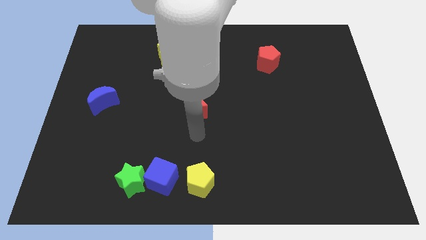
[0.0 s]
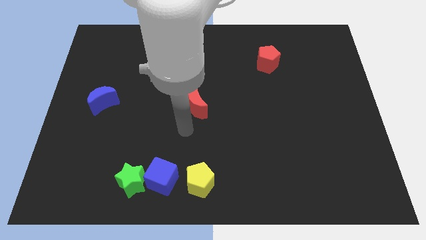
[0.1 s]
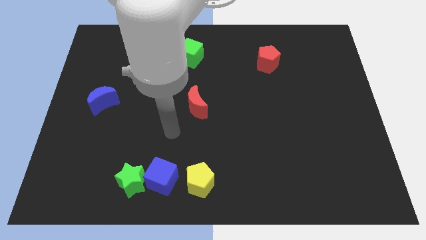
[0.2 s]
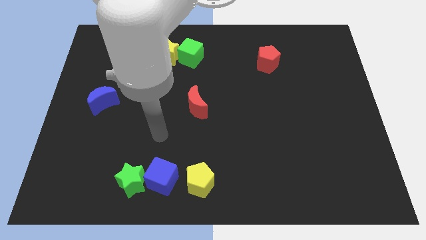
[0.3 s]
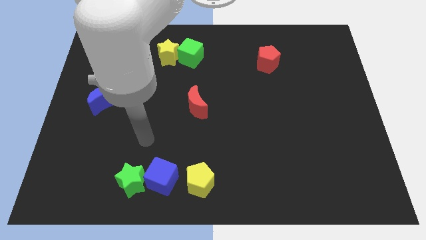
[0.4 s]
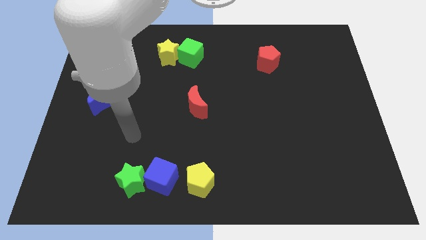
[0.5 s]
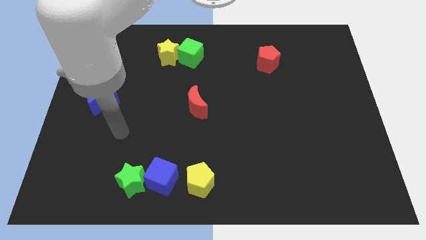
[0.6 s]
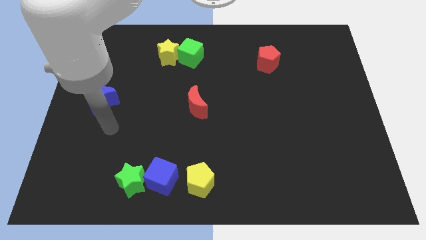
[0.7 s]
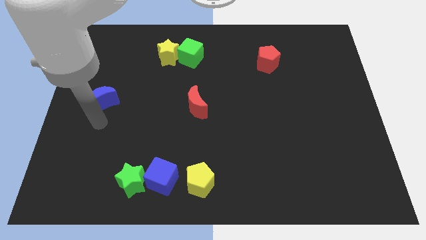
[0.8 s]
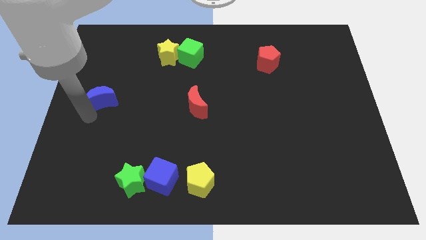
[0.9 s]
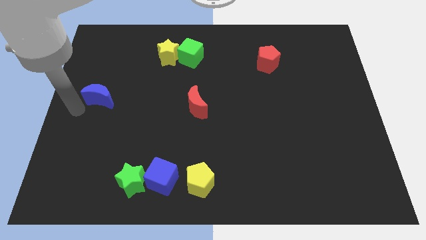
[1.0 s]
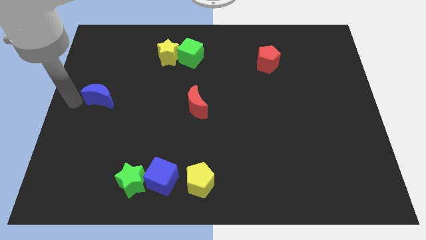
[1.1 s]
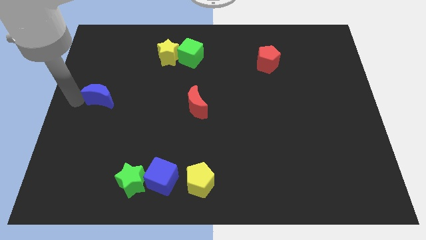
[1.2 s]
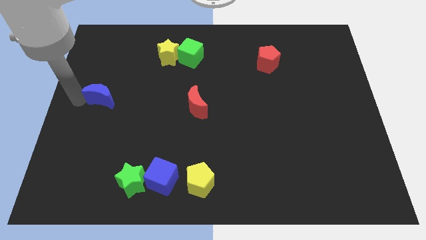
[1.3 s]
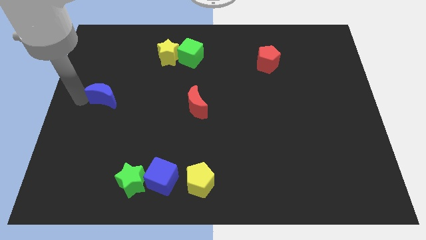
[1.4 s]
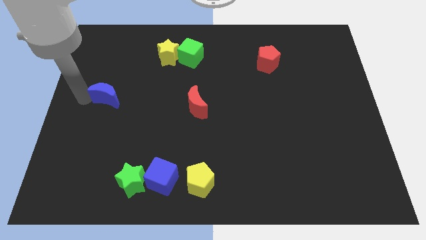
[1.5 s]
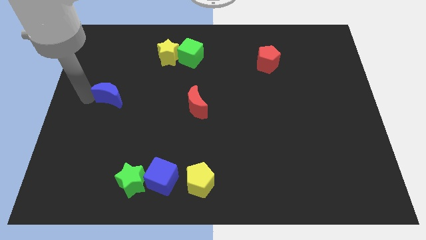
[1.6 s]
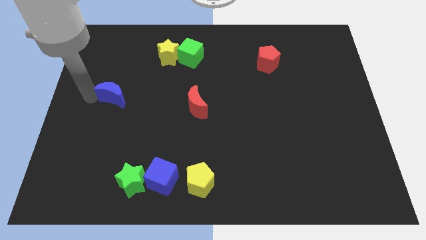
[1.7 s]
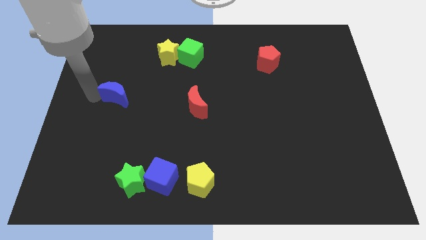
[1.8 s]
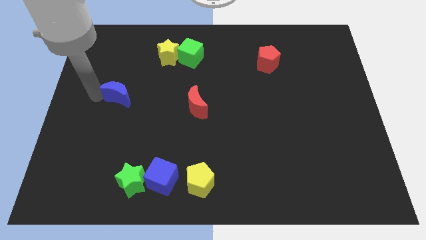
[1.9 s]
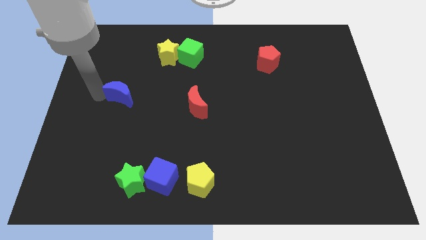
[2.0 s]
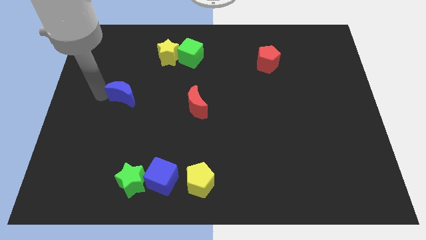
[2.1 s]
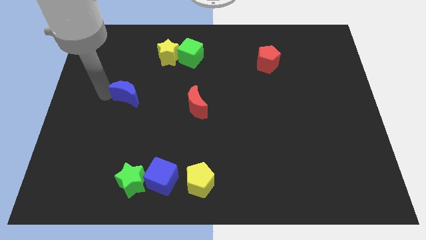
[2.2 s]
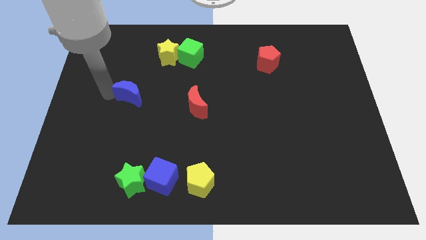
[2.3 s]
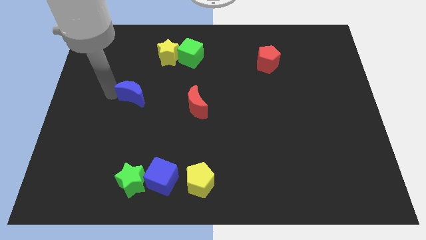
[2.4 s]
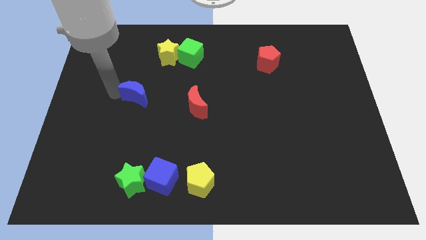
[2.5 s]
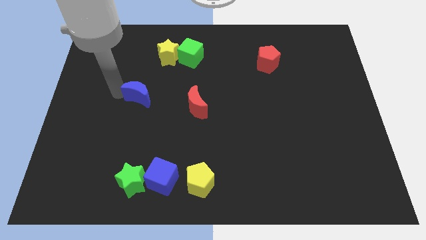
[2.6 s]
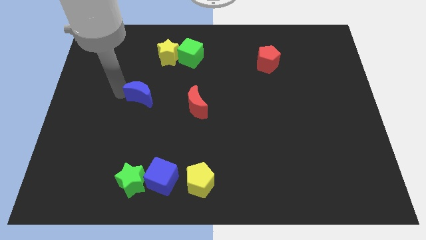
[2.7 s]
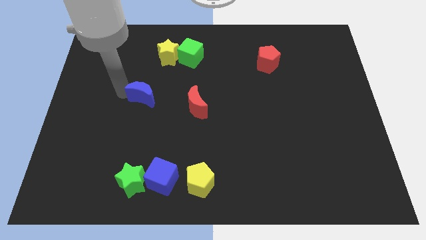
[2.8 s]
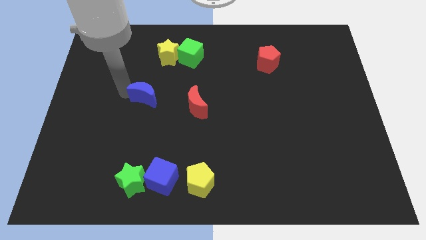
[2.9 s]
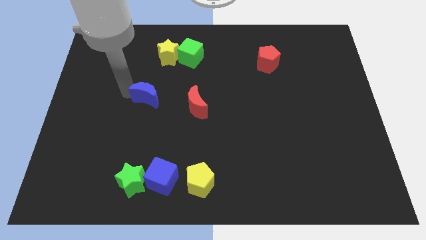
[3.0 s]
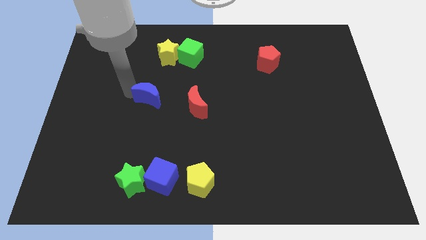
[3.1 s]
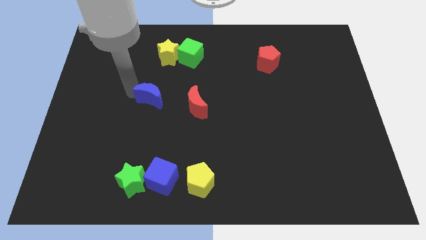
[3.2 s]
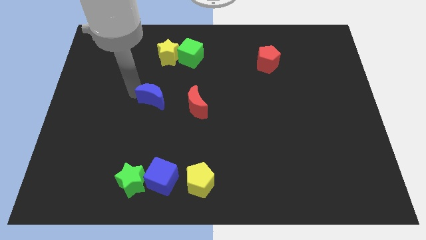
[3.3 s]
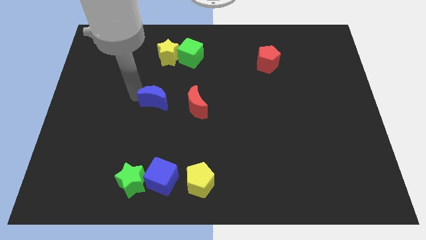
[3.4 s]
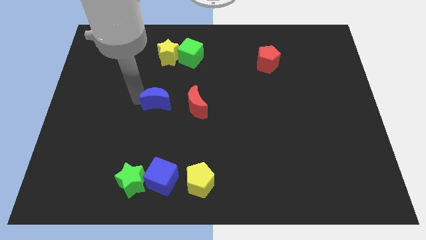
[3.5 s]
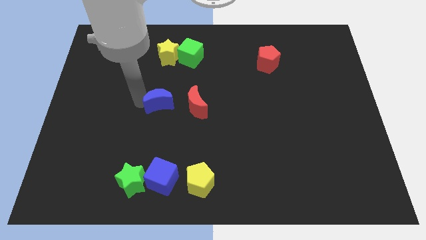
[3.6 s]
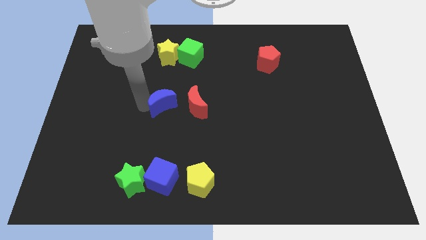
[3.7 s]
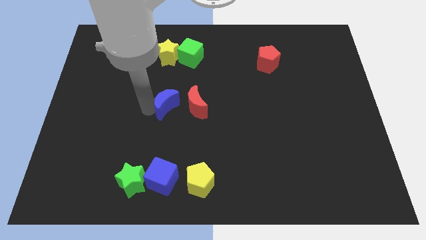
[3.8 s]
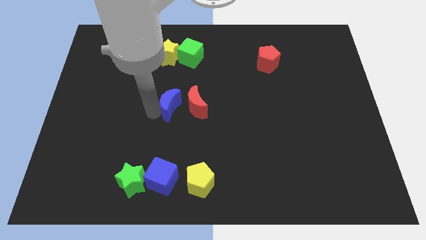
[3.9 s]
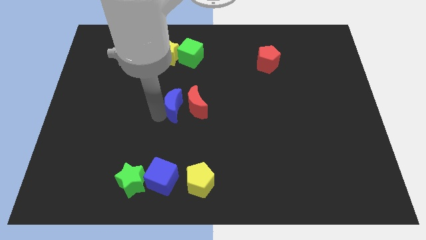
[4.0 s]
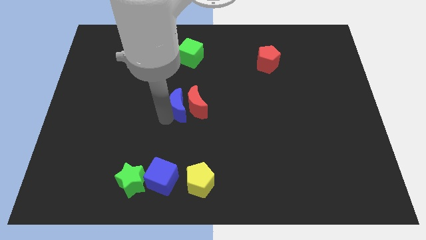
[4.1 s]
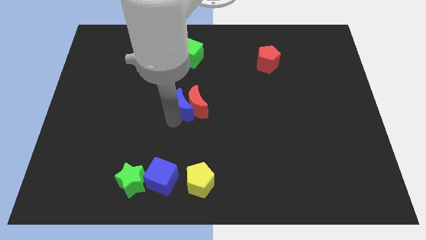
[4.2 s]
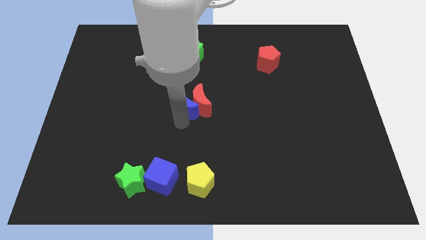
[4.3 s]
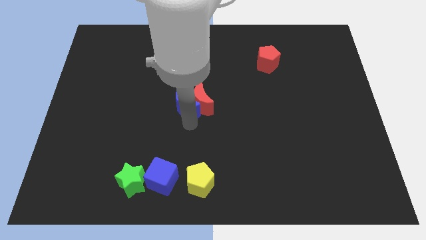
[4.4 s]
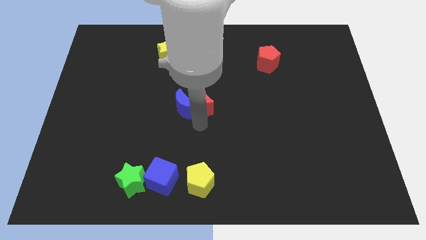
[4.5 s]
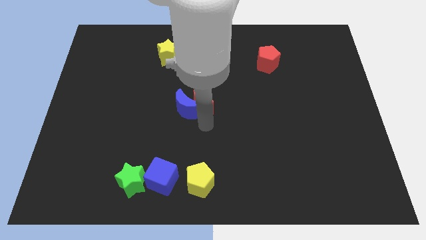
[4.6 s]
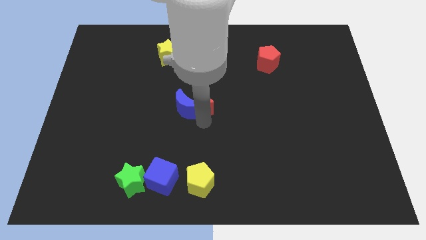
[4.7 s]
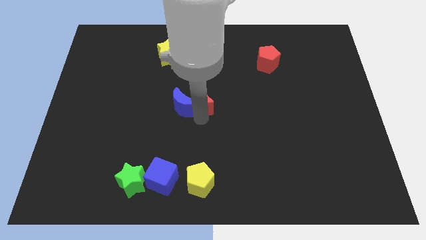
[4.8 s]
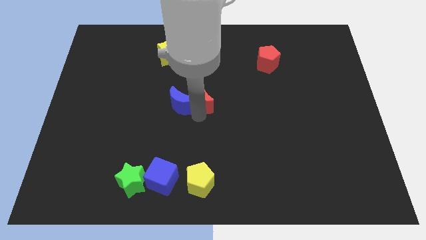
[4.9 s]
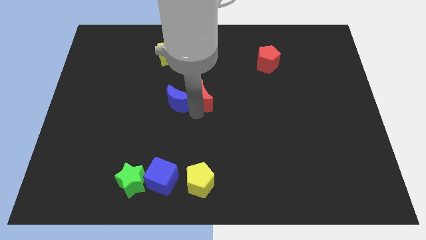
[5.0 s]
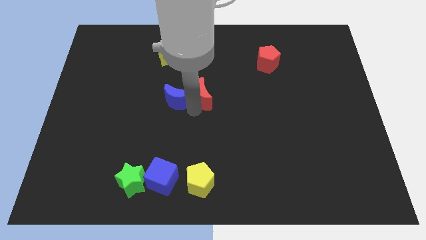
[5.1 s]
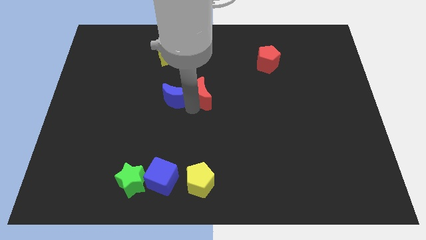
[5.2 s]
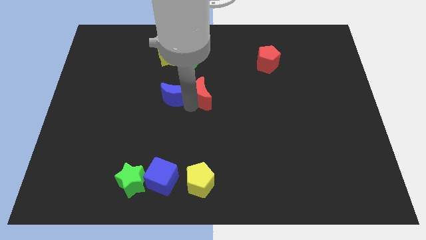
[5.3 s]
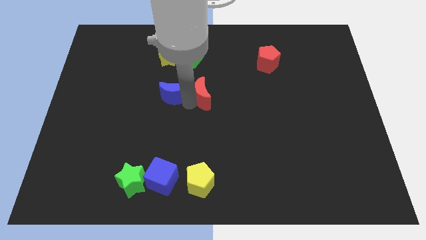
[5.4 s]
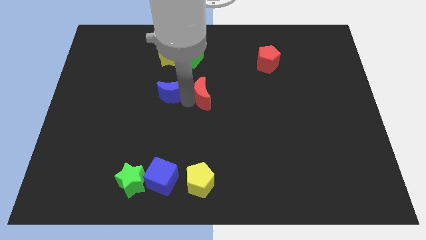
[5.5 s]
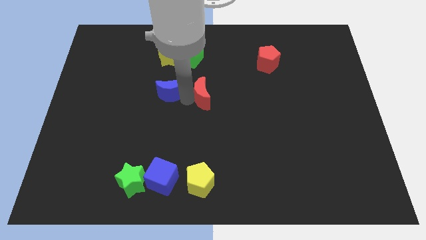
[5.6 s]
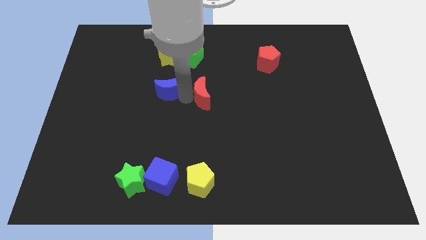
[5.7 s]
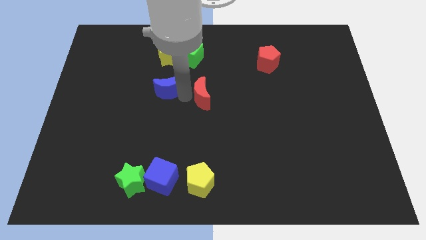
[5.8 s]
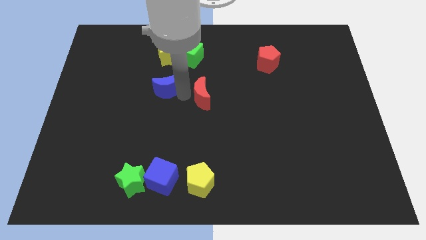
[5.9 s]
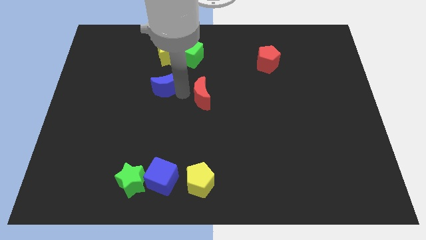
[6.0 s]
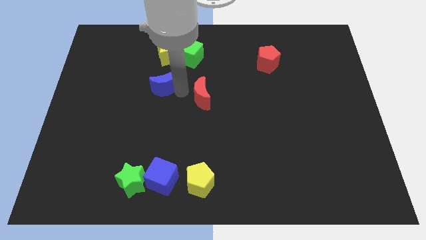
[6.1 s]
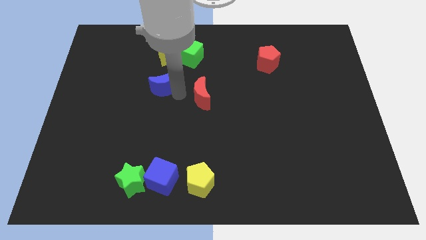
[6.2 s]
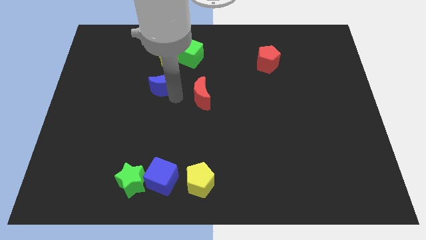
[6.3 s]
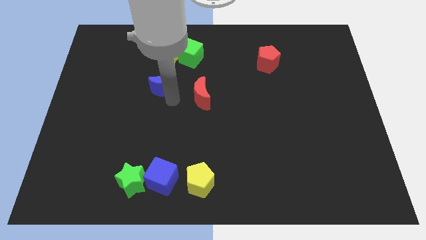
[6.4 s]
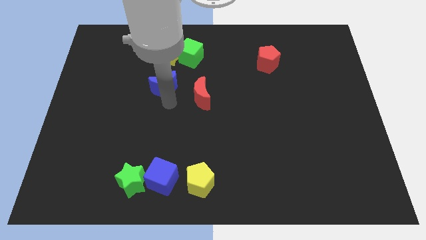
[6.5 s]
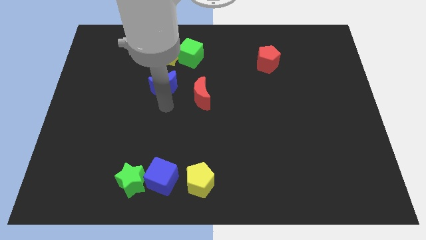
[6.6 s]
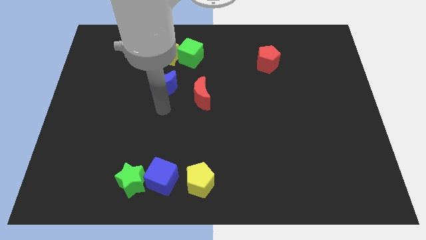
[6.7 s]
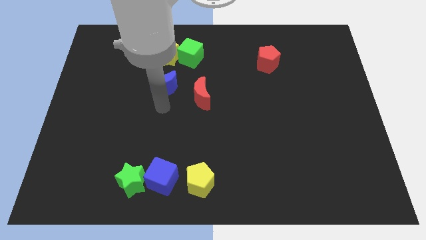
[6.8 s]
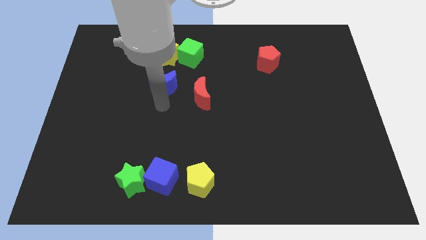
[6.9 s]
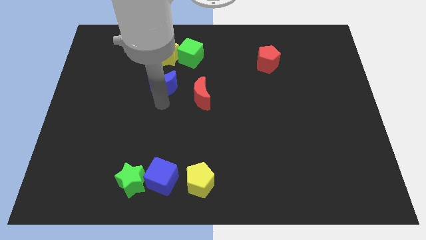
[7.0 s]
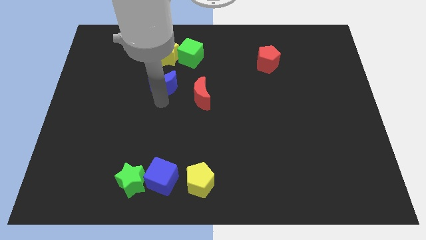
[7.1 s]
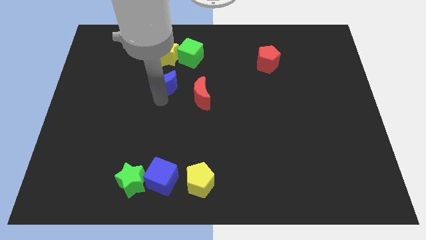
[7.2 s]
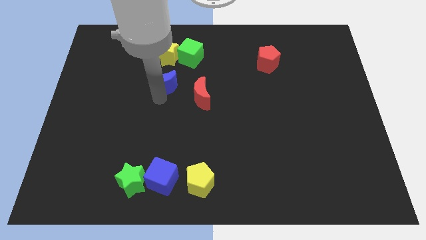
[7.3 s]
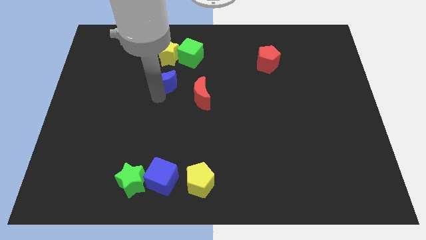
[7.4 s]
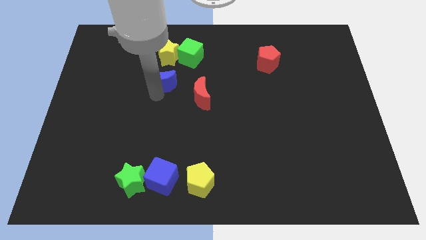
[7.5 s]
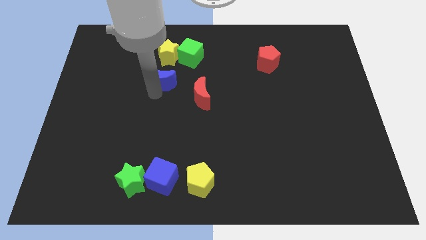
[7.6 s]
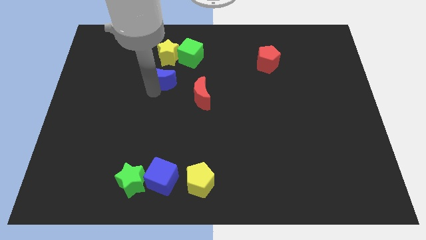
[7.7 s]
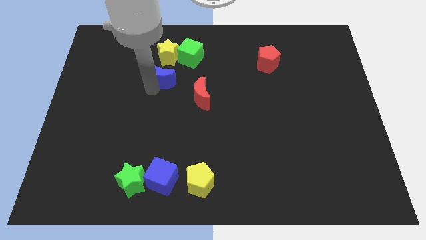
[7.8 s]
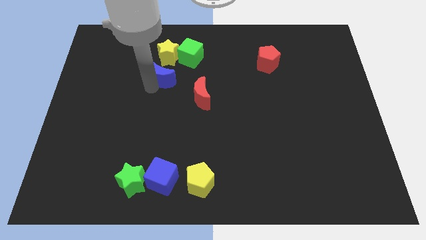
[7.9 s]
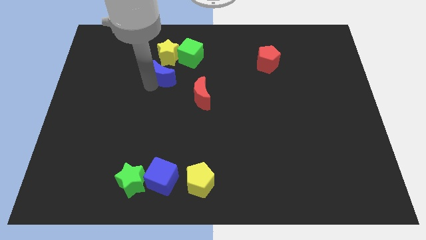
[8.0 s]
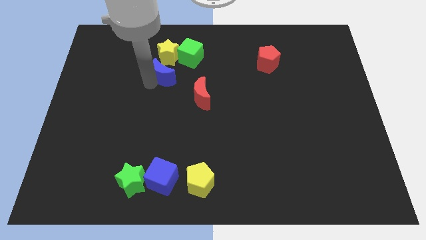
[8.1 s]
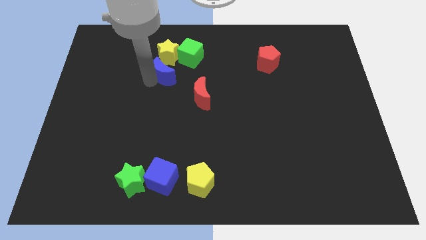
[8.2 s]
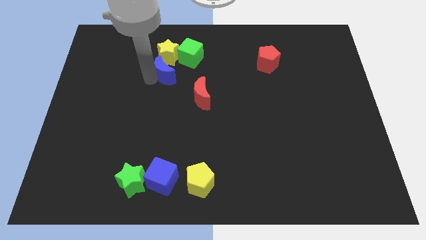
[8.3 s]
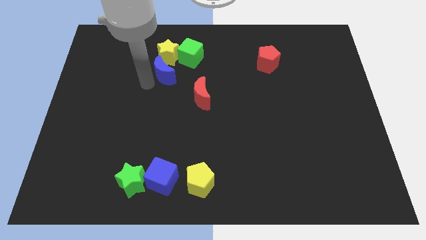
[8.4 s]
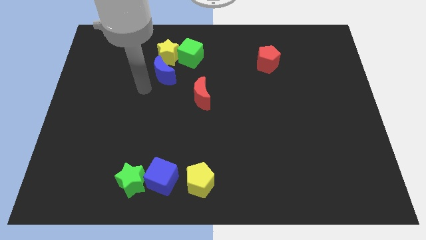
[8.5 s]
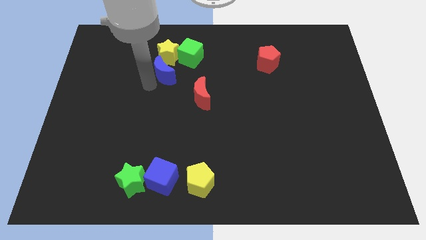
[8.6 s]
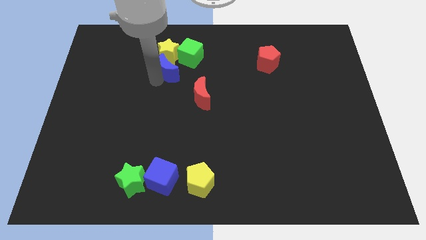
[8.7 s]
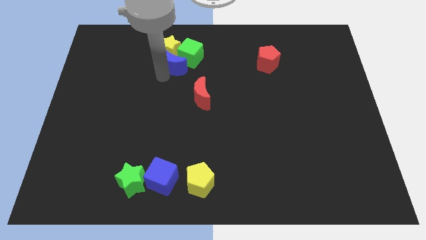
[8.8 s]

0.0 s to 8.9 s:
push the blue moon towards the green cube
